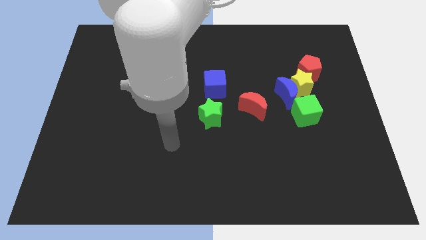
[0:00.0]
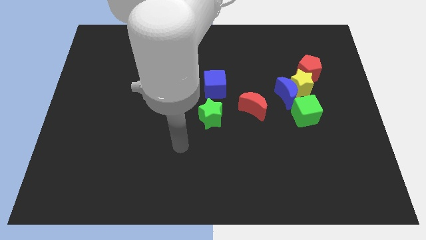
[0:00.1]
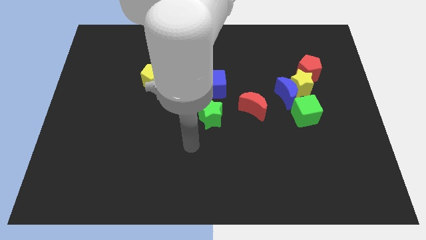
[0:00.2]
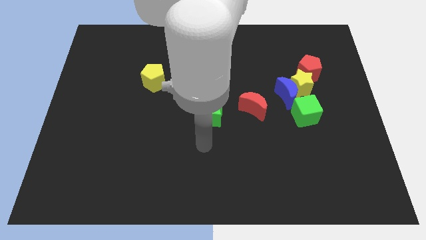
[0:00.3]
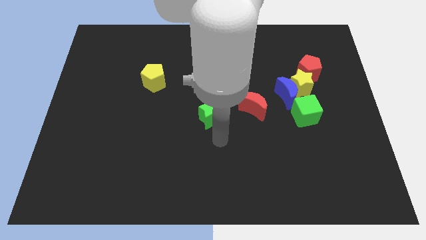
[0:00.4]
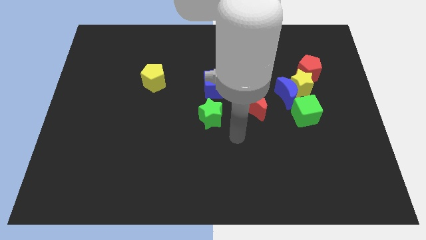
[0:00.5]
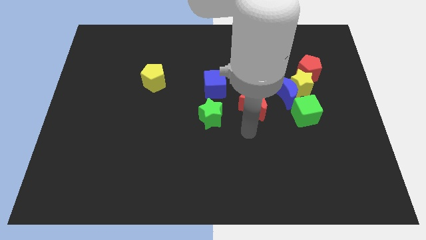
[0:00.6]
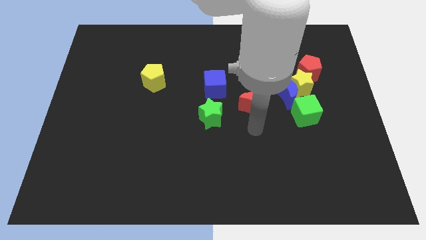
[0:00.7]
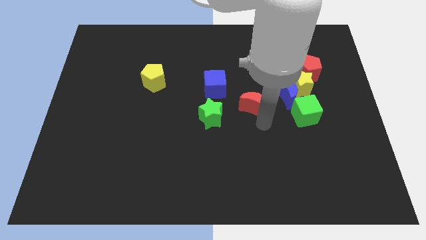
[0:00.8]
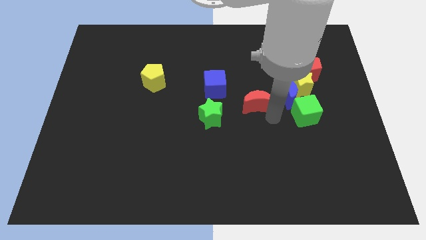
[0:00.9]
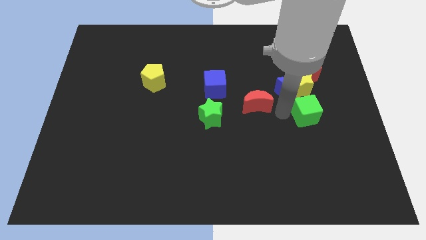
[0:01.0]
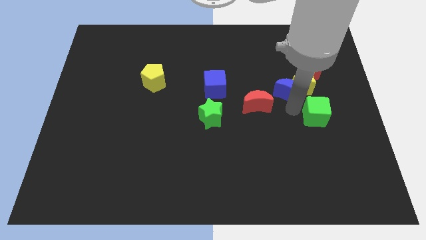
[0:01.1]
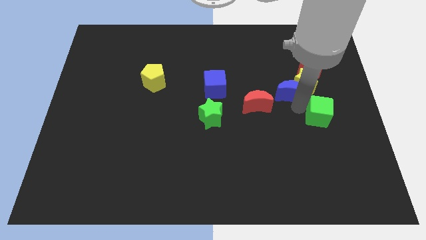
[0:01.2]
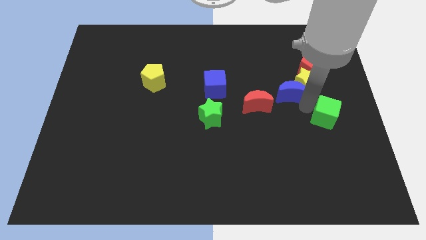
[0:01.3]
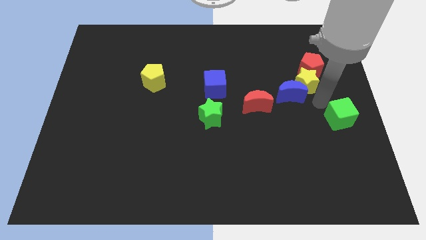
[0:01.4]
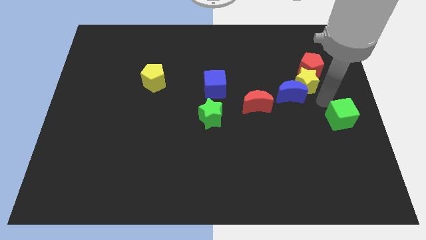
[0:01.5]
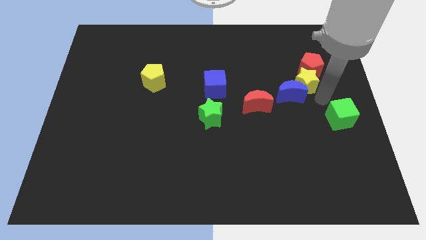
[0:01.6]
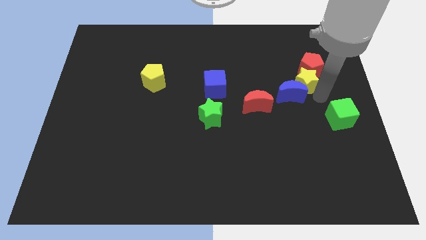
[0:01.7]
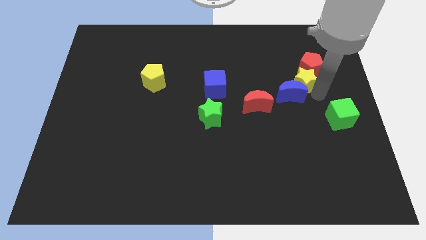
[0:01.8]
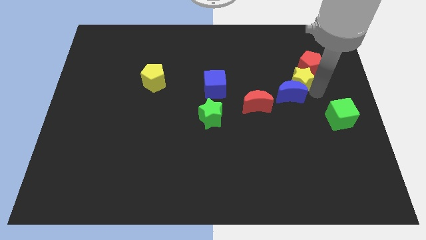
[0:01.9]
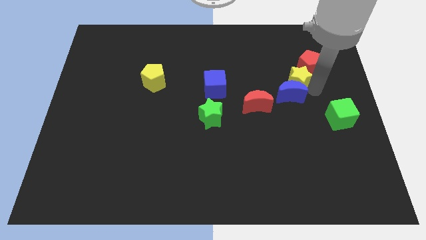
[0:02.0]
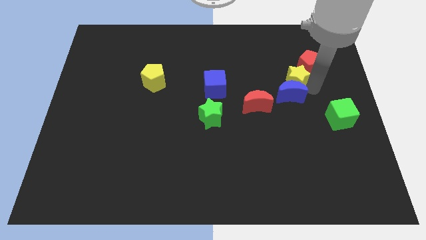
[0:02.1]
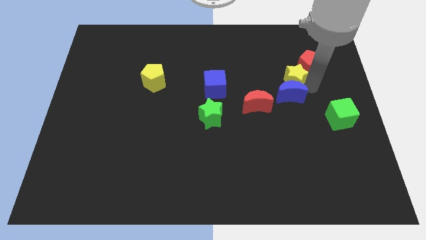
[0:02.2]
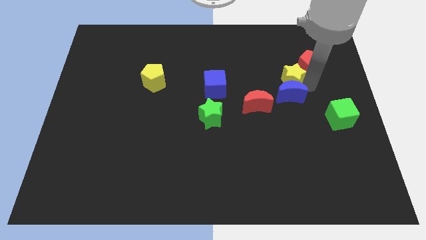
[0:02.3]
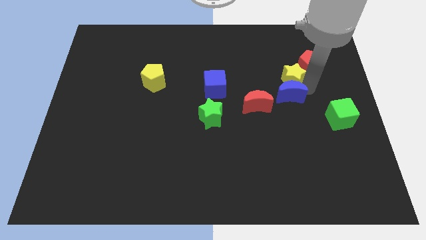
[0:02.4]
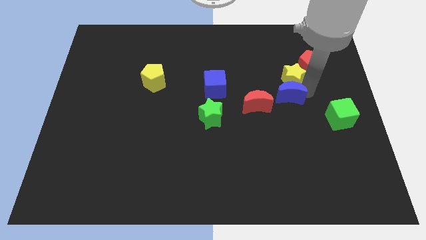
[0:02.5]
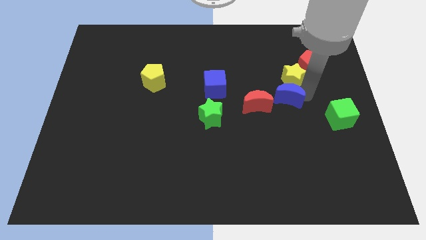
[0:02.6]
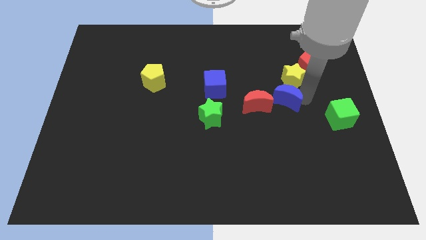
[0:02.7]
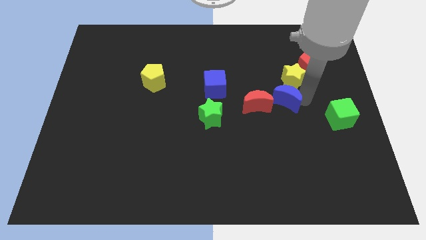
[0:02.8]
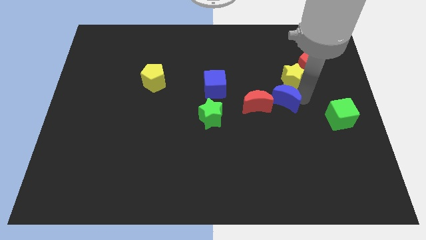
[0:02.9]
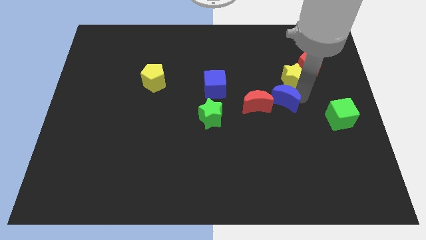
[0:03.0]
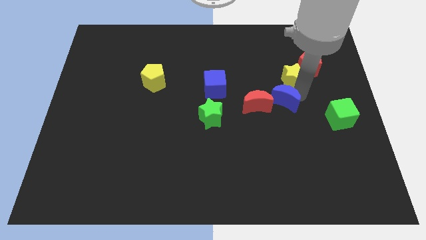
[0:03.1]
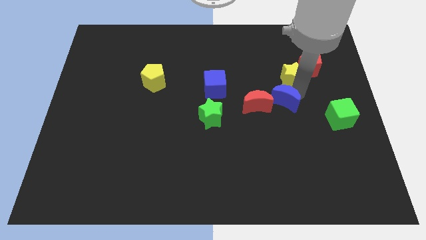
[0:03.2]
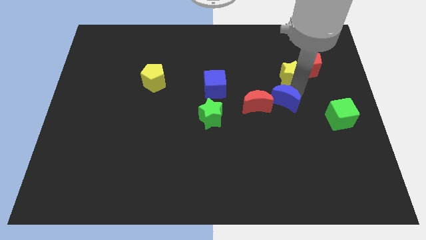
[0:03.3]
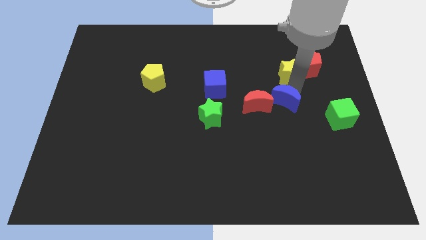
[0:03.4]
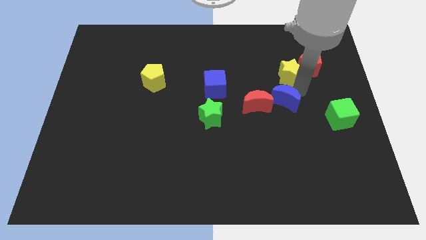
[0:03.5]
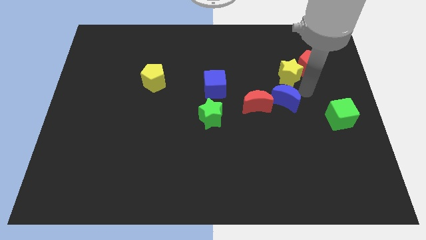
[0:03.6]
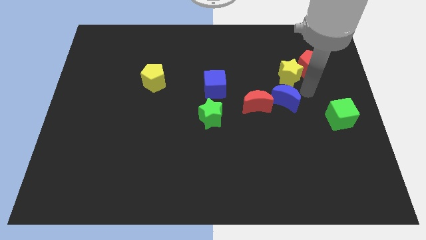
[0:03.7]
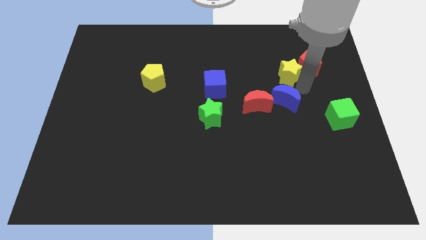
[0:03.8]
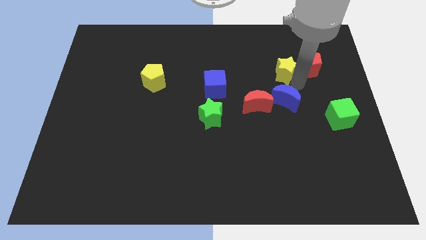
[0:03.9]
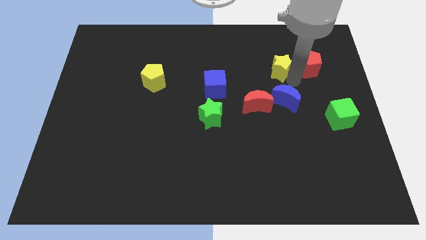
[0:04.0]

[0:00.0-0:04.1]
move the yellow star away from the group of blocks

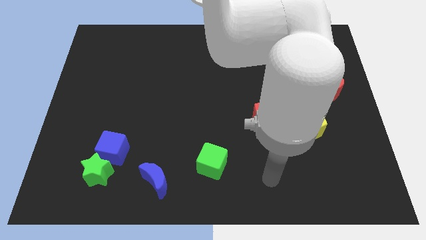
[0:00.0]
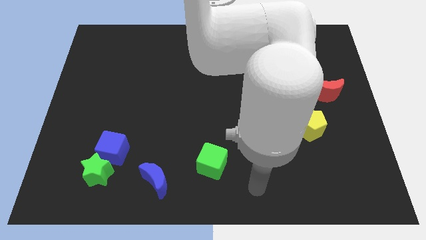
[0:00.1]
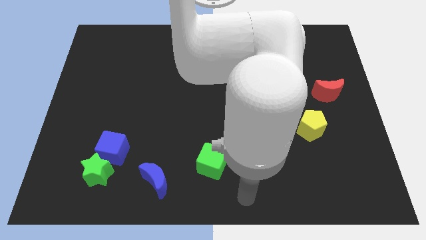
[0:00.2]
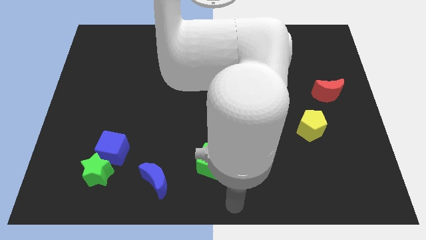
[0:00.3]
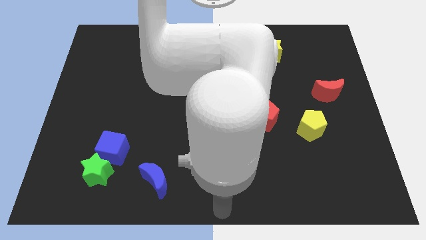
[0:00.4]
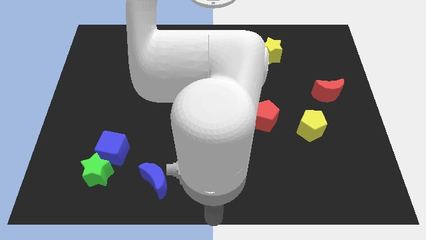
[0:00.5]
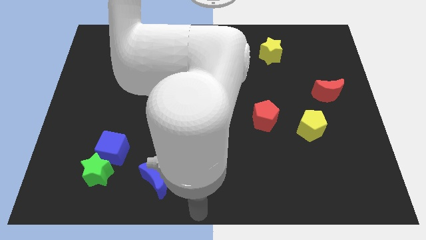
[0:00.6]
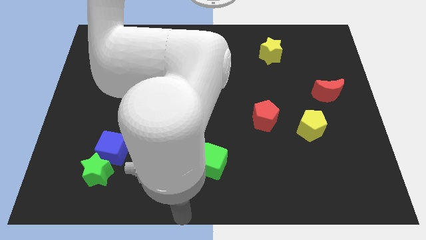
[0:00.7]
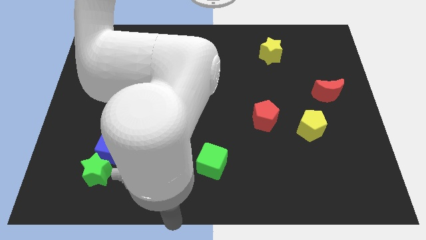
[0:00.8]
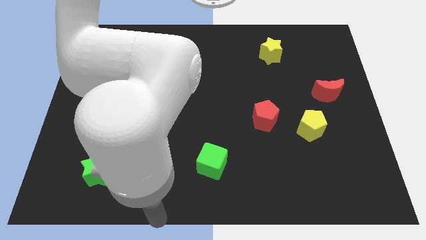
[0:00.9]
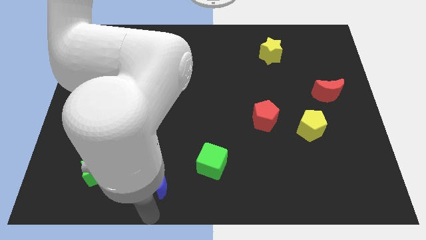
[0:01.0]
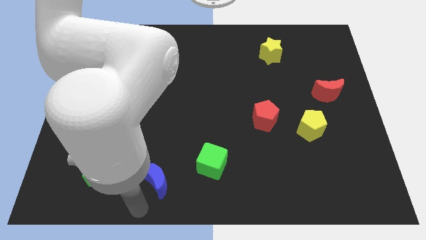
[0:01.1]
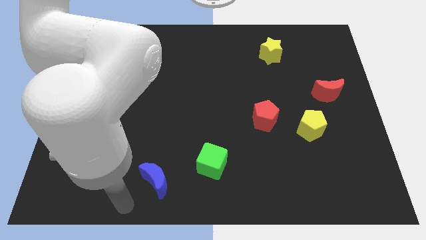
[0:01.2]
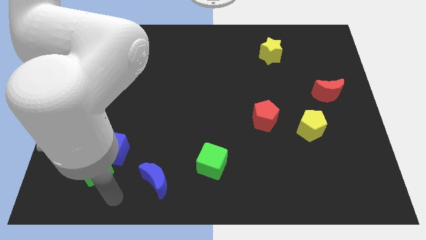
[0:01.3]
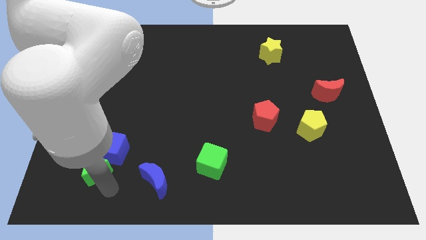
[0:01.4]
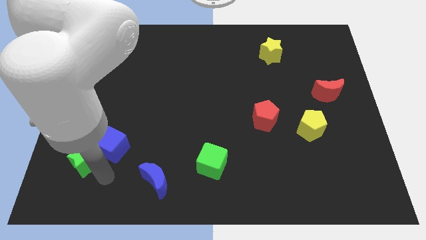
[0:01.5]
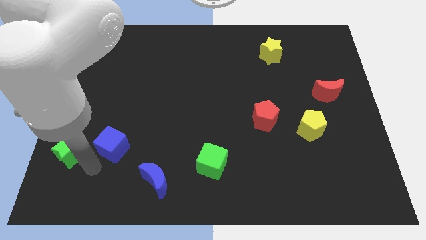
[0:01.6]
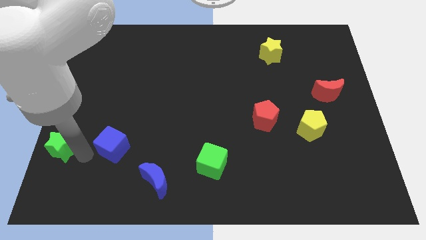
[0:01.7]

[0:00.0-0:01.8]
separate the blue cube from the green star

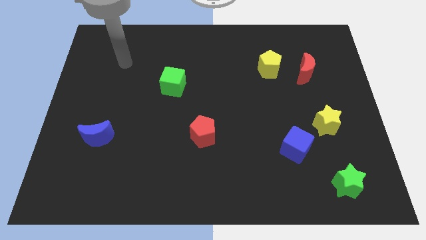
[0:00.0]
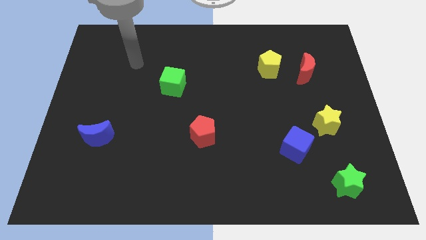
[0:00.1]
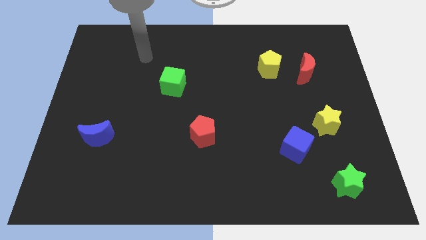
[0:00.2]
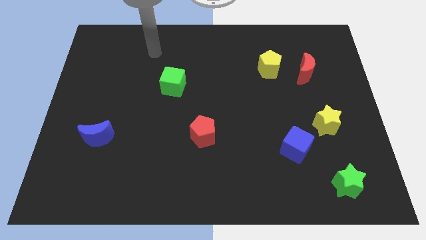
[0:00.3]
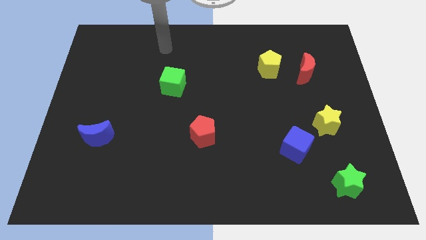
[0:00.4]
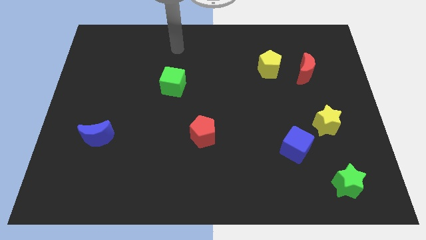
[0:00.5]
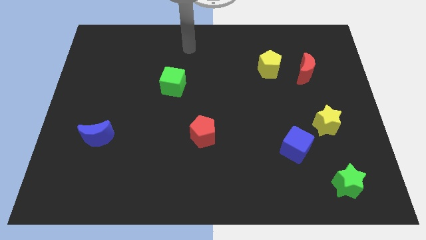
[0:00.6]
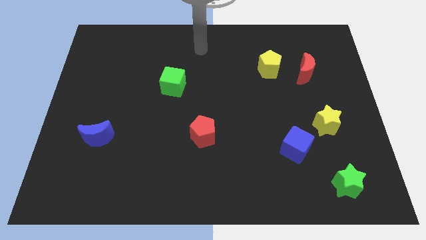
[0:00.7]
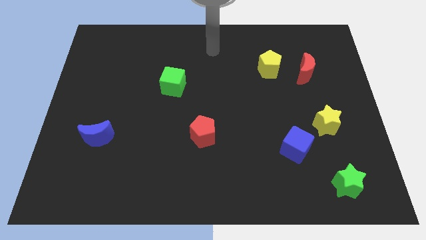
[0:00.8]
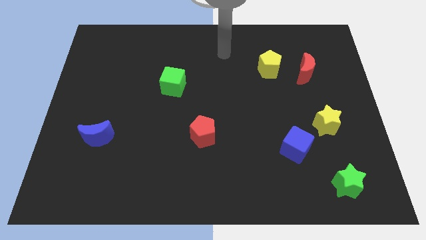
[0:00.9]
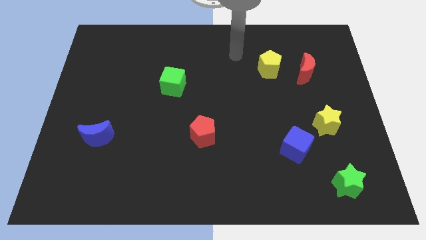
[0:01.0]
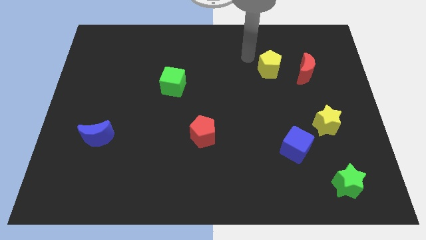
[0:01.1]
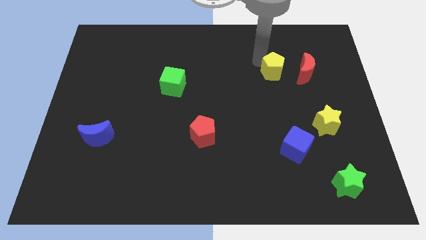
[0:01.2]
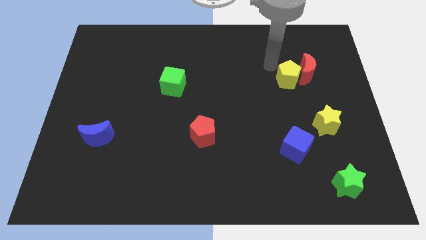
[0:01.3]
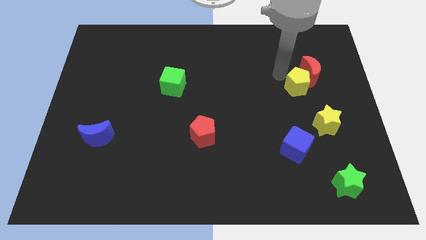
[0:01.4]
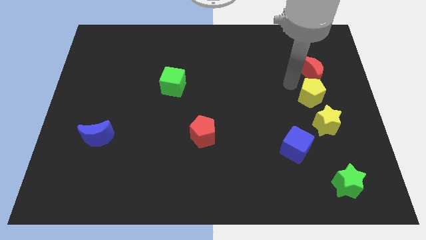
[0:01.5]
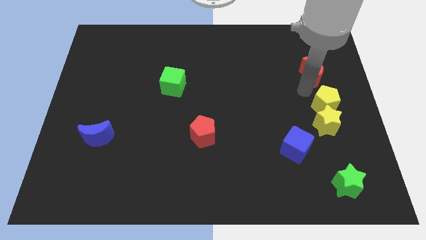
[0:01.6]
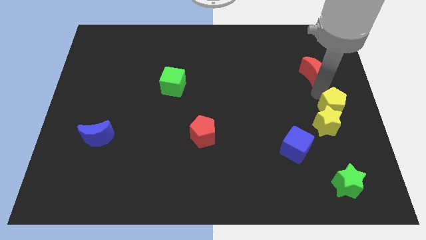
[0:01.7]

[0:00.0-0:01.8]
pull the red moon apart from the yellow pentagon

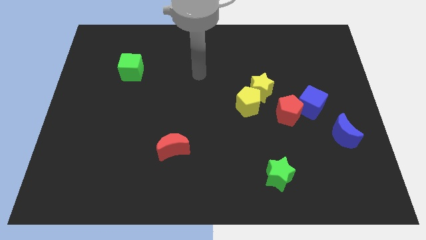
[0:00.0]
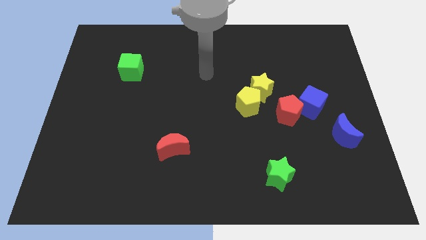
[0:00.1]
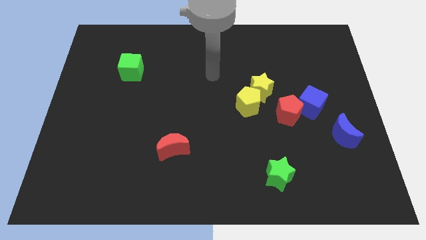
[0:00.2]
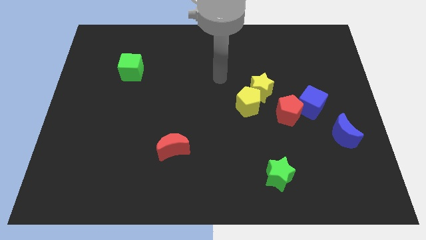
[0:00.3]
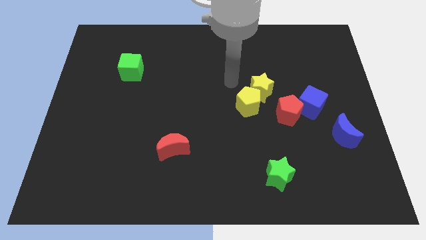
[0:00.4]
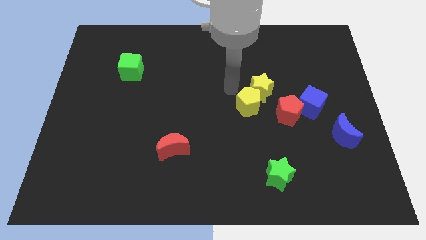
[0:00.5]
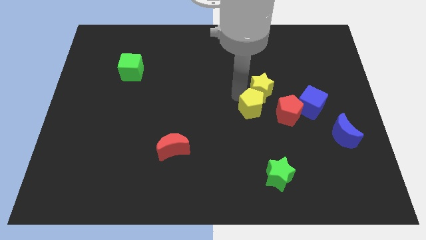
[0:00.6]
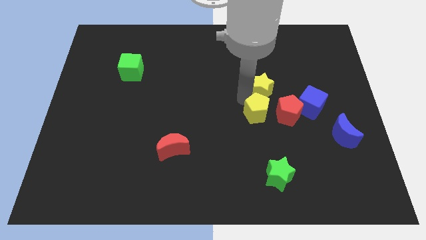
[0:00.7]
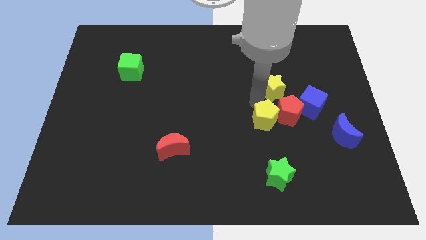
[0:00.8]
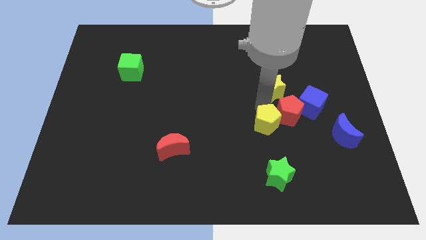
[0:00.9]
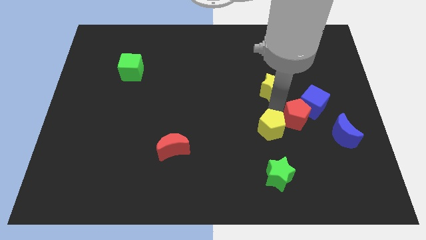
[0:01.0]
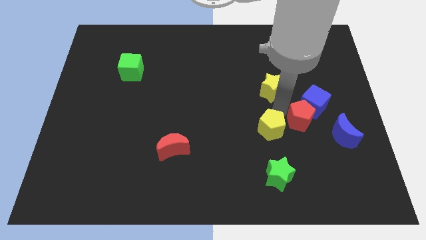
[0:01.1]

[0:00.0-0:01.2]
move the yellow star away from the yellow pentagon and red pentagon

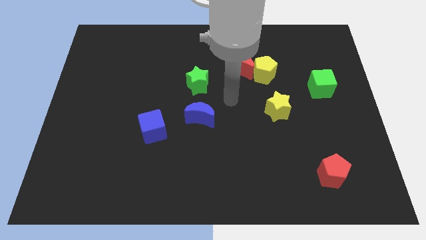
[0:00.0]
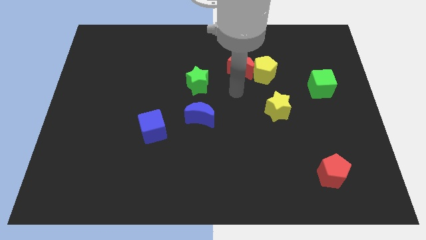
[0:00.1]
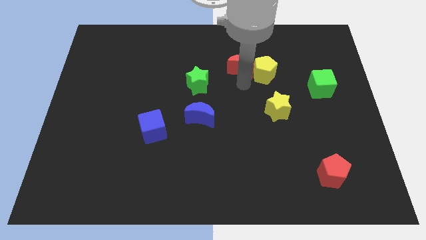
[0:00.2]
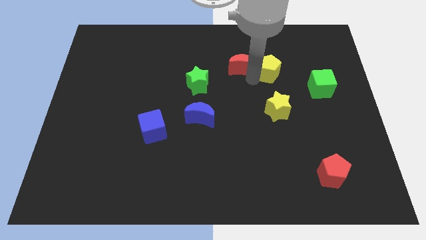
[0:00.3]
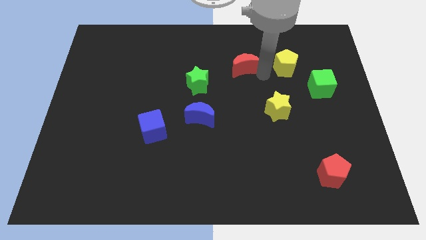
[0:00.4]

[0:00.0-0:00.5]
separate the red moon from the yellow pentagon
